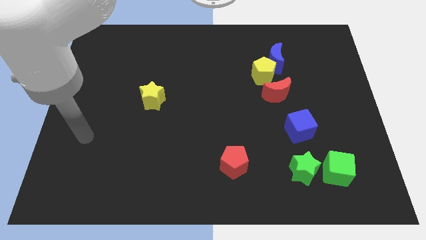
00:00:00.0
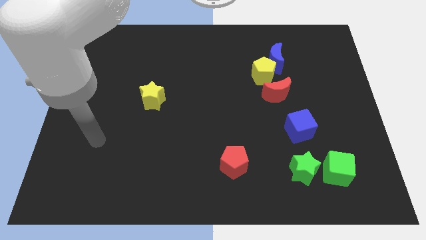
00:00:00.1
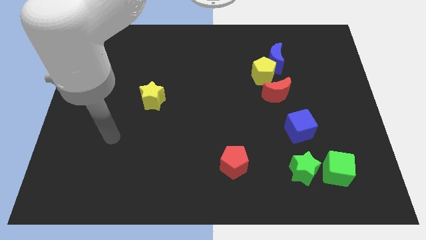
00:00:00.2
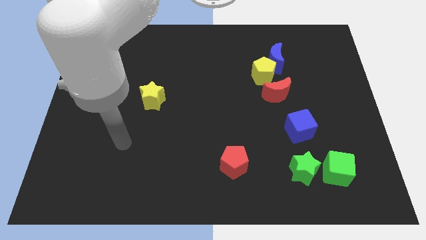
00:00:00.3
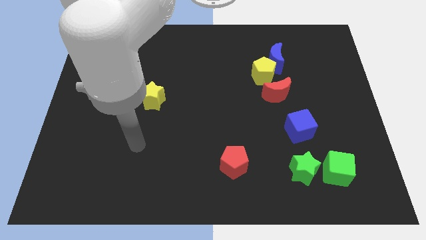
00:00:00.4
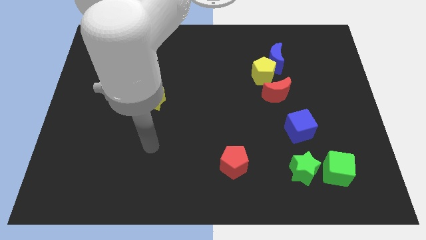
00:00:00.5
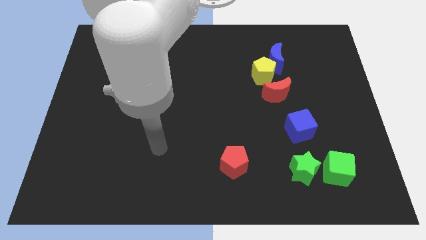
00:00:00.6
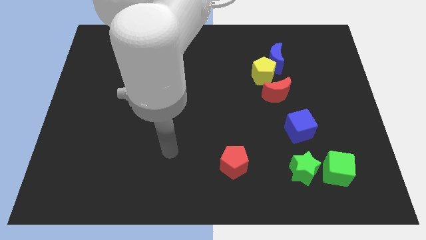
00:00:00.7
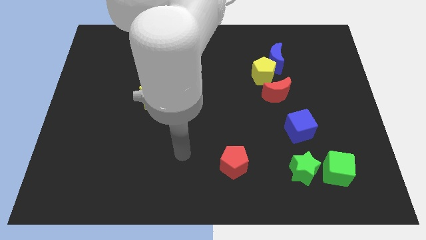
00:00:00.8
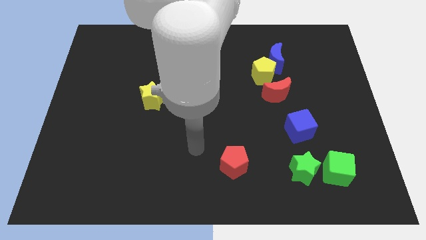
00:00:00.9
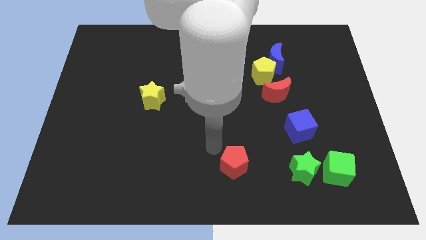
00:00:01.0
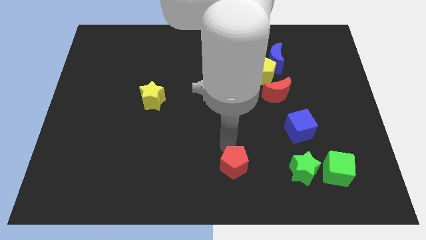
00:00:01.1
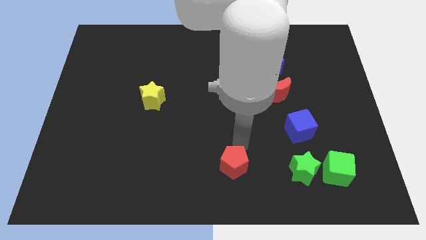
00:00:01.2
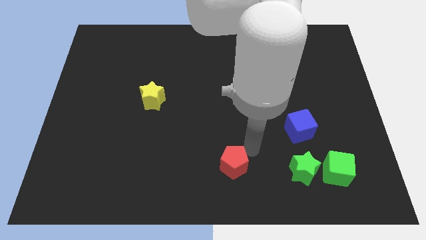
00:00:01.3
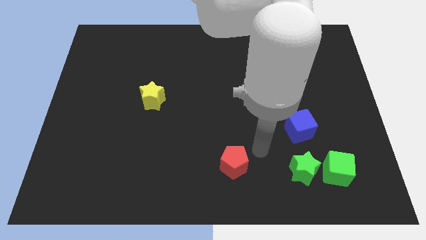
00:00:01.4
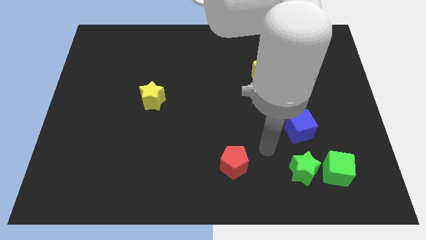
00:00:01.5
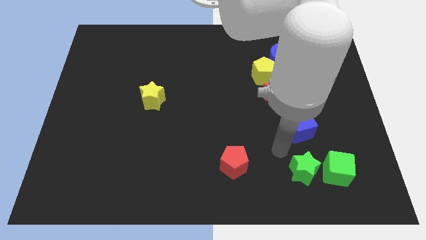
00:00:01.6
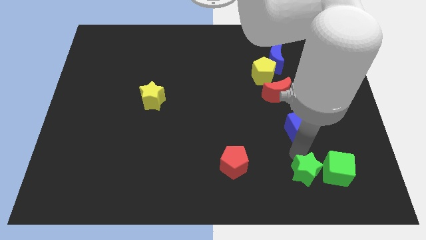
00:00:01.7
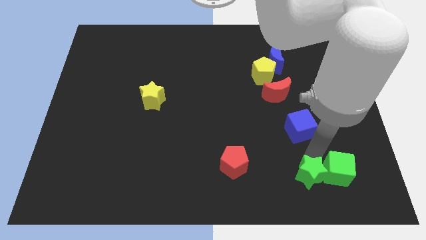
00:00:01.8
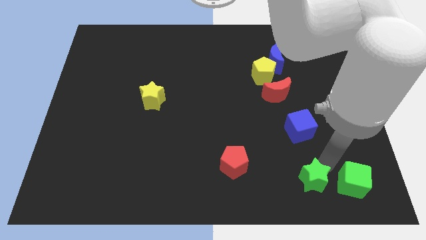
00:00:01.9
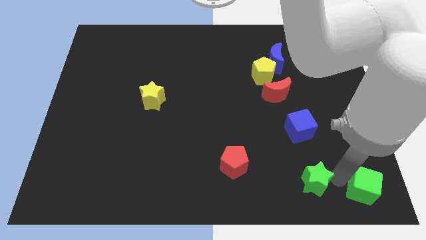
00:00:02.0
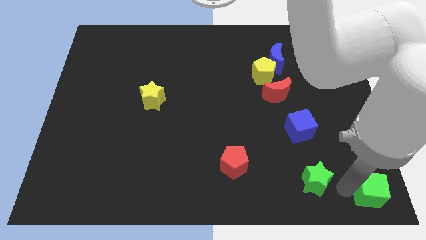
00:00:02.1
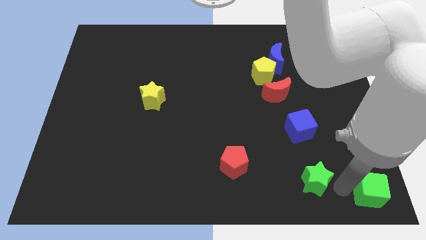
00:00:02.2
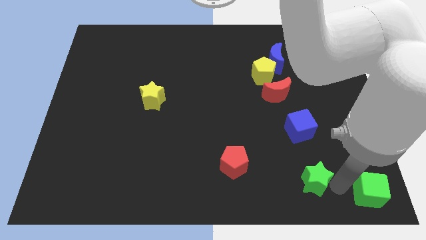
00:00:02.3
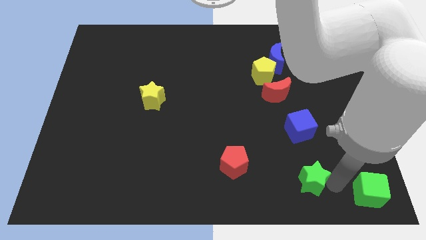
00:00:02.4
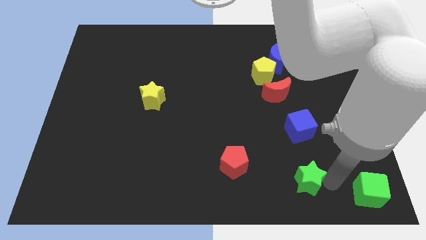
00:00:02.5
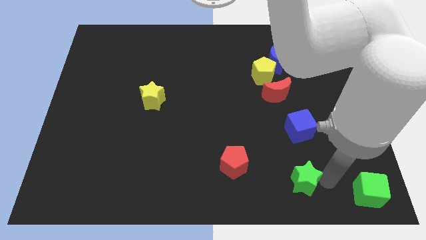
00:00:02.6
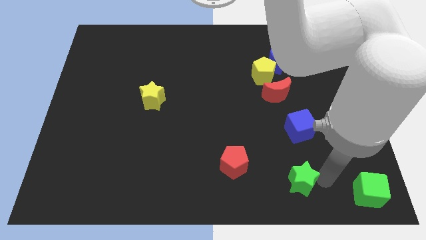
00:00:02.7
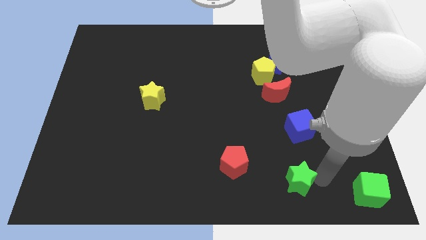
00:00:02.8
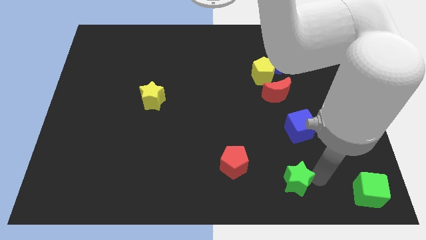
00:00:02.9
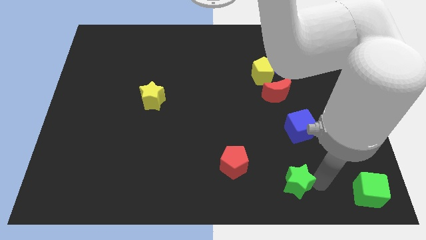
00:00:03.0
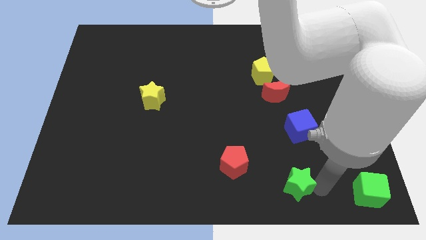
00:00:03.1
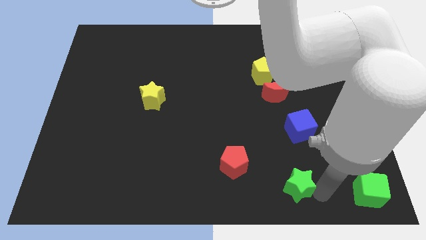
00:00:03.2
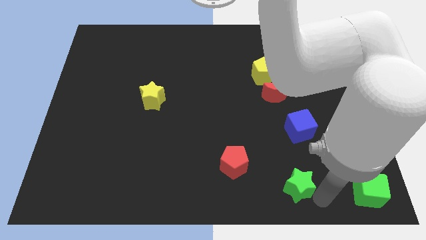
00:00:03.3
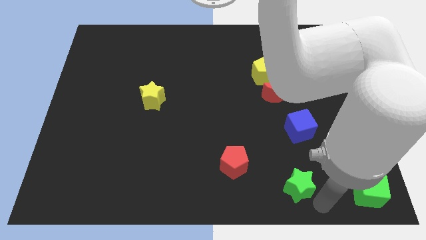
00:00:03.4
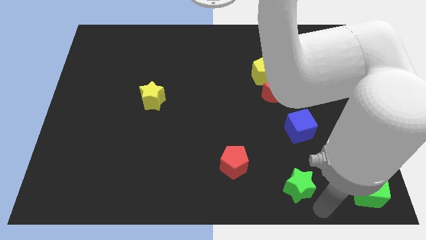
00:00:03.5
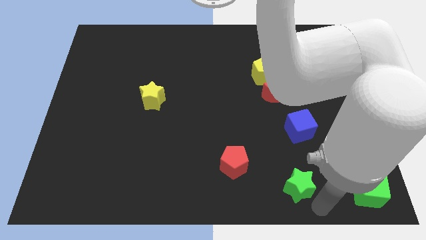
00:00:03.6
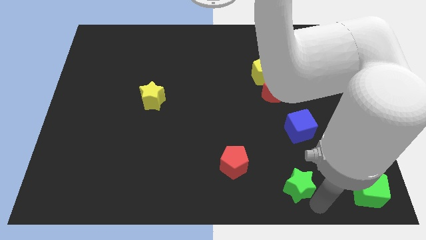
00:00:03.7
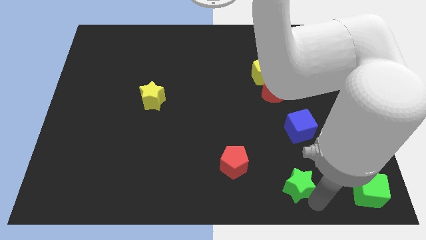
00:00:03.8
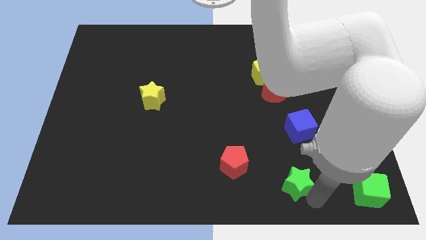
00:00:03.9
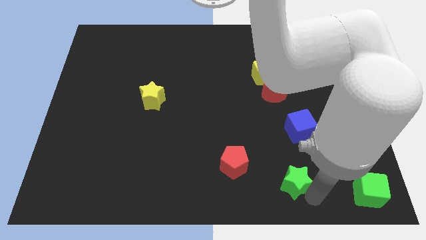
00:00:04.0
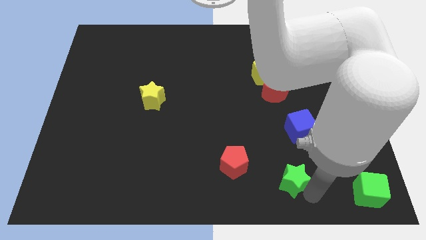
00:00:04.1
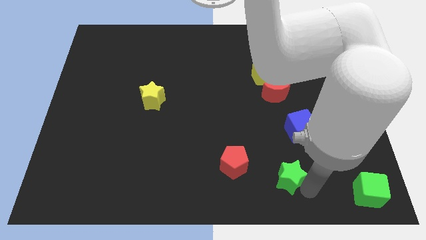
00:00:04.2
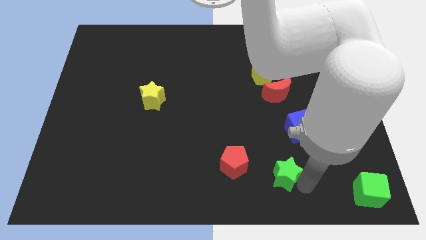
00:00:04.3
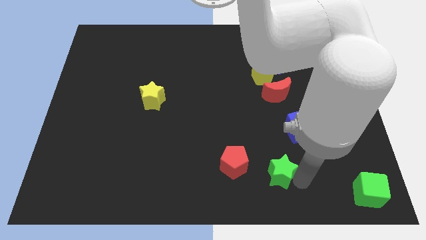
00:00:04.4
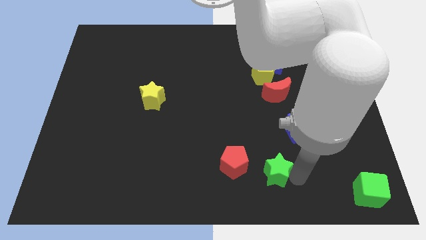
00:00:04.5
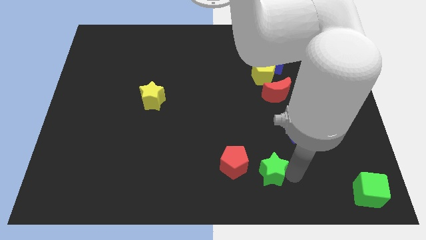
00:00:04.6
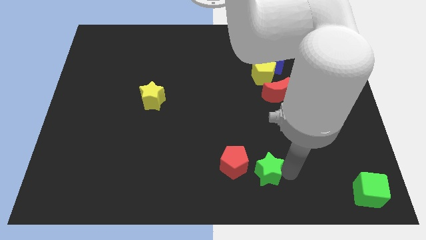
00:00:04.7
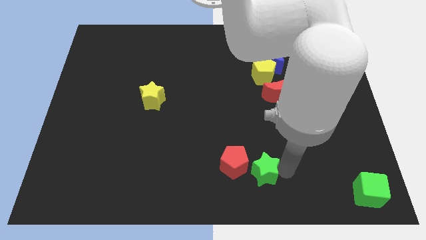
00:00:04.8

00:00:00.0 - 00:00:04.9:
push the green star to the red pentagon

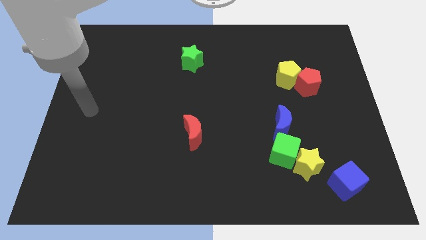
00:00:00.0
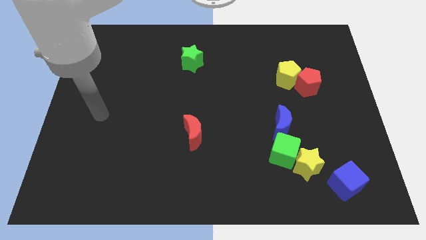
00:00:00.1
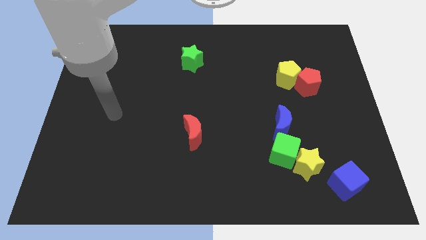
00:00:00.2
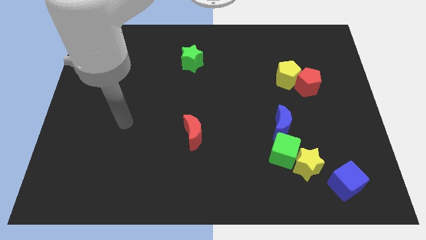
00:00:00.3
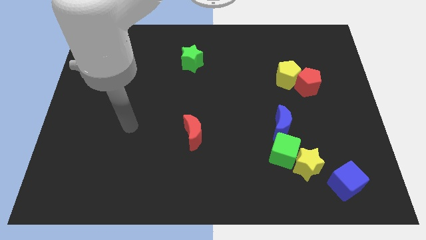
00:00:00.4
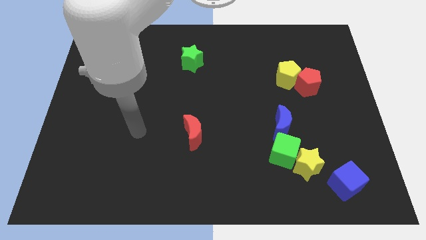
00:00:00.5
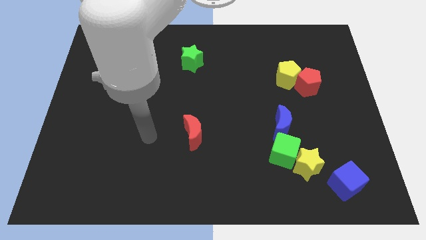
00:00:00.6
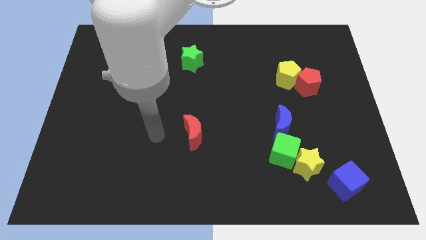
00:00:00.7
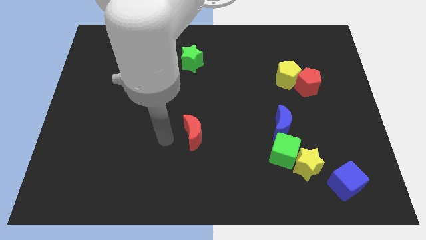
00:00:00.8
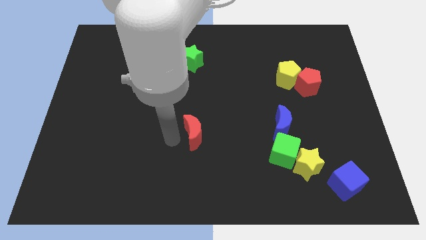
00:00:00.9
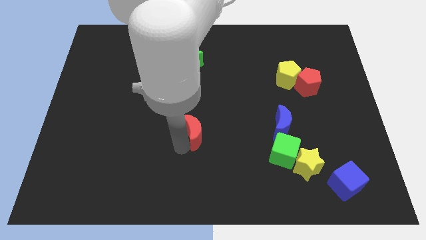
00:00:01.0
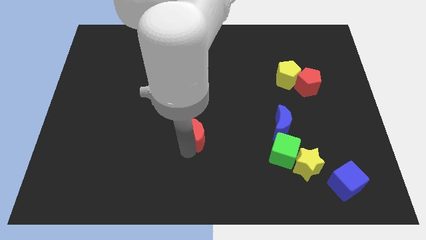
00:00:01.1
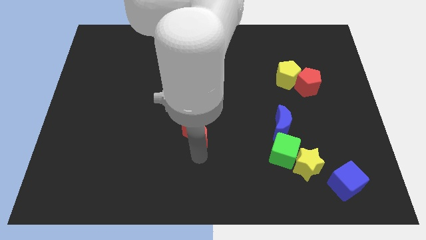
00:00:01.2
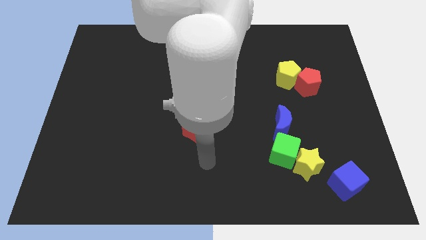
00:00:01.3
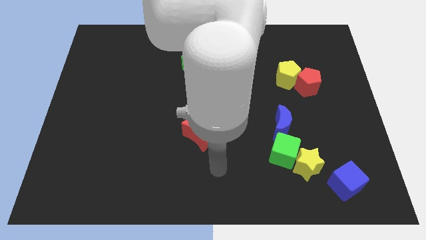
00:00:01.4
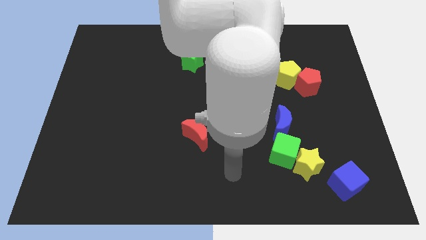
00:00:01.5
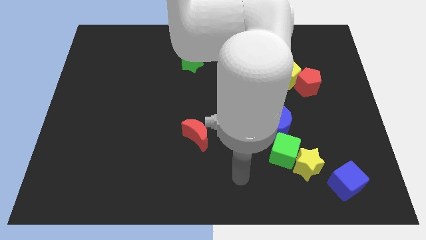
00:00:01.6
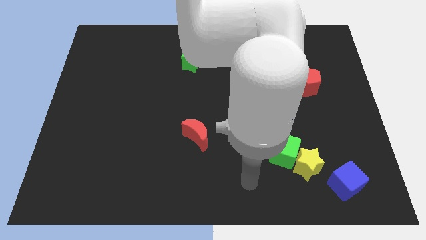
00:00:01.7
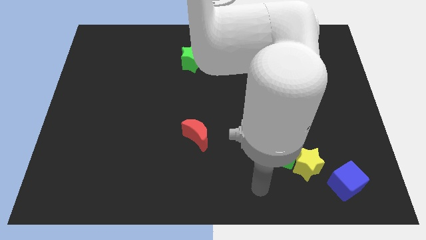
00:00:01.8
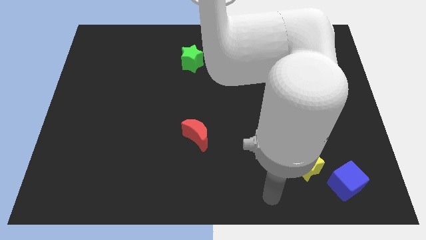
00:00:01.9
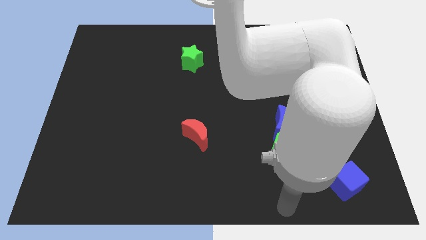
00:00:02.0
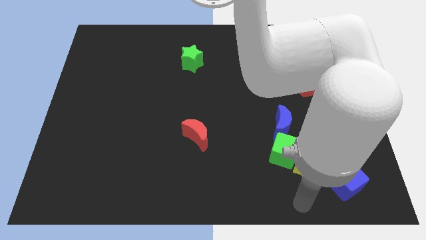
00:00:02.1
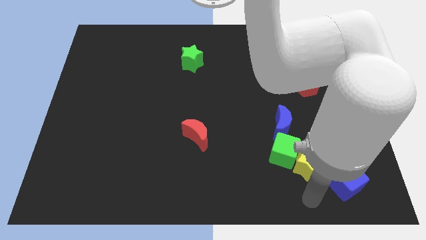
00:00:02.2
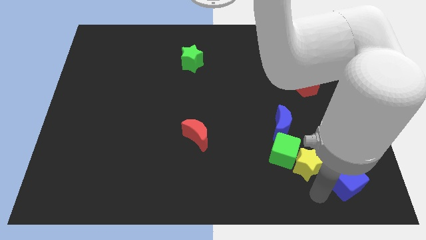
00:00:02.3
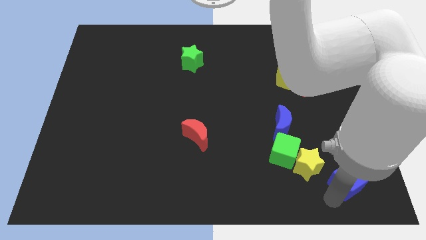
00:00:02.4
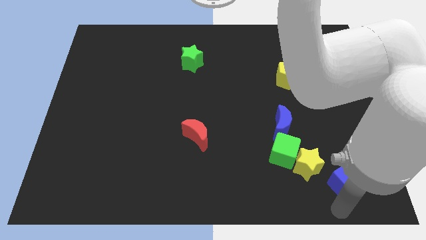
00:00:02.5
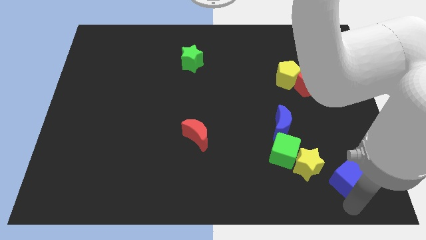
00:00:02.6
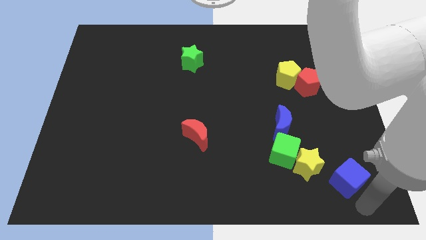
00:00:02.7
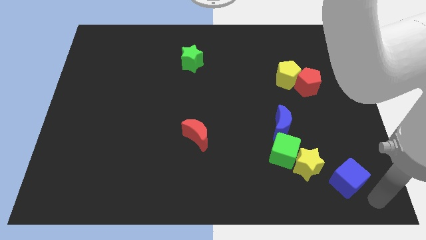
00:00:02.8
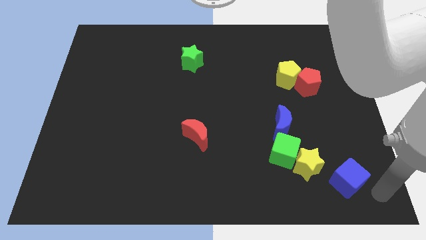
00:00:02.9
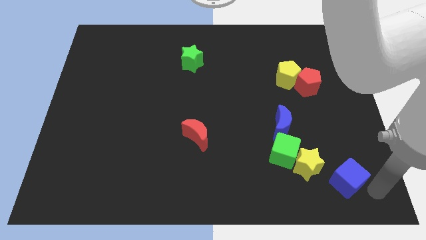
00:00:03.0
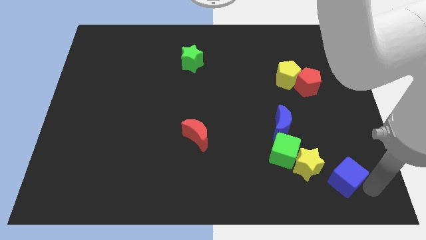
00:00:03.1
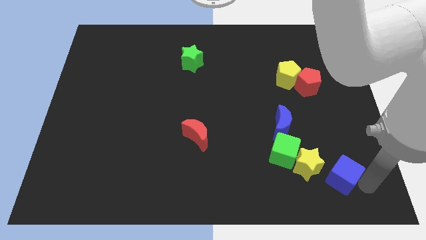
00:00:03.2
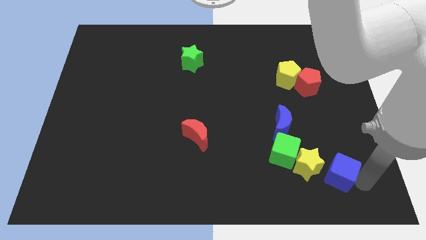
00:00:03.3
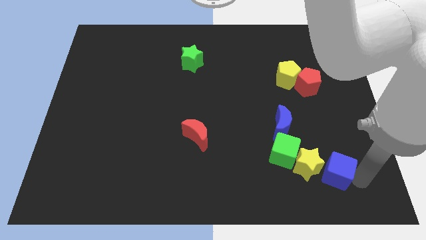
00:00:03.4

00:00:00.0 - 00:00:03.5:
put the blue cube close to the yellow star
